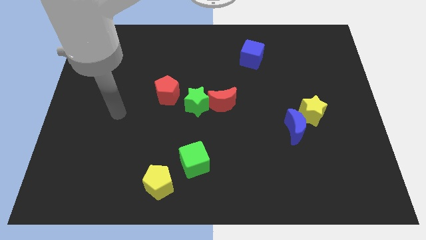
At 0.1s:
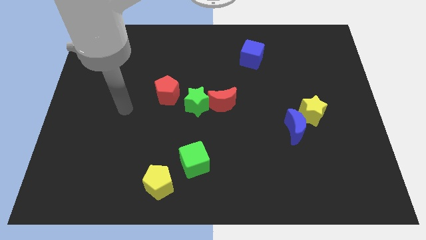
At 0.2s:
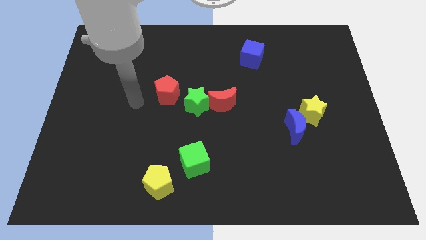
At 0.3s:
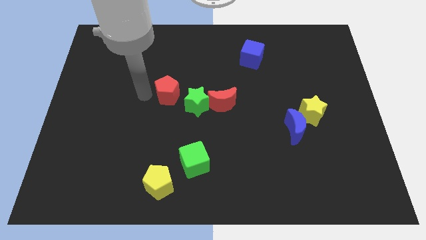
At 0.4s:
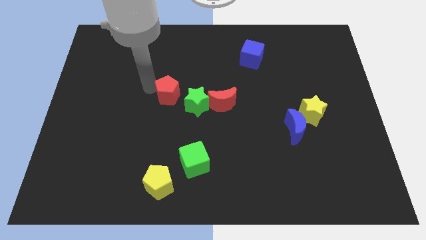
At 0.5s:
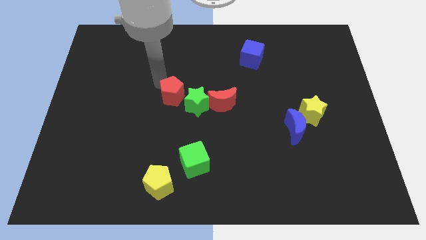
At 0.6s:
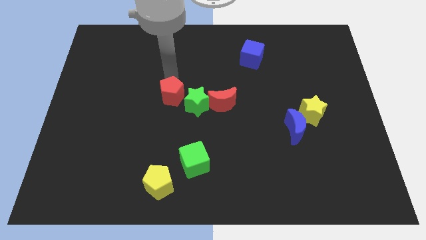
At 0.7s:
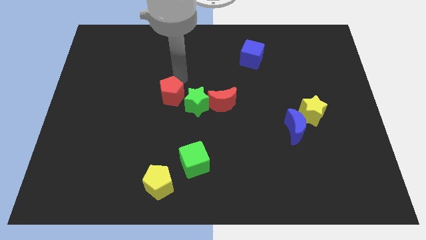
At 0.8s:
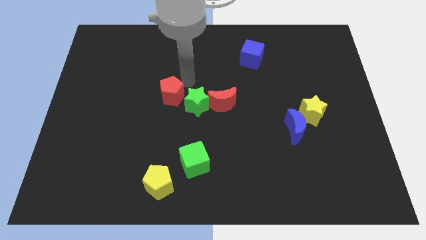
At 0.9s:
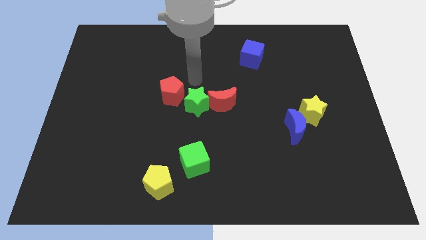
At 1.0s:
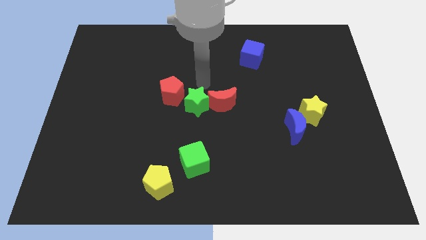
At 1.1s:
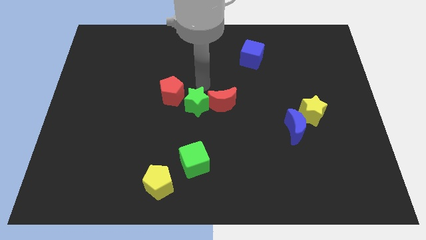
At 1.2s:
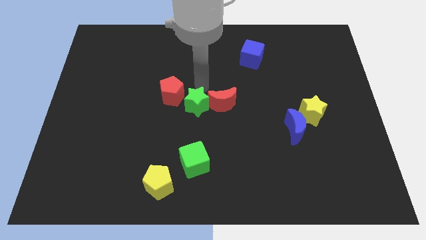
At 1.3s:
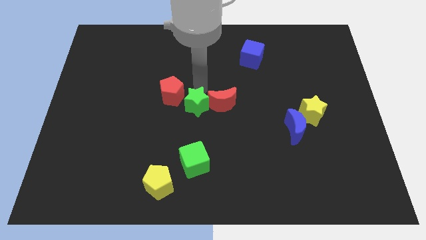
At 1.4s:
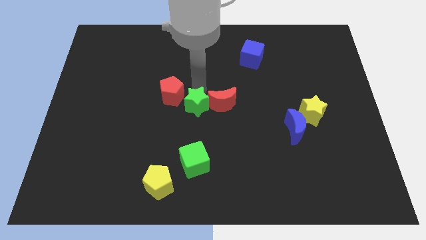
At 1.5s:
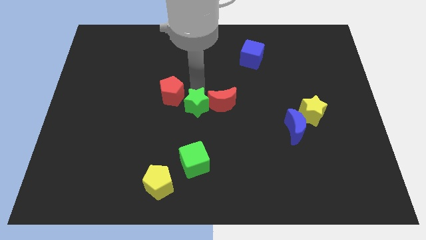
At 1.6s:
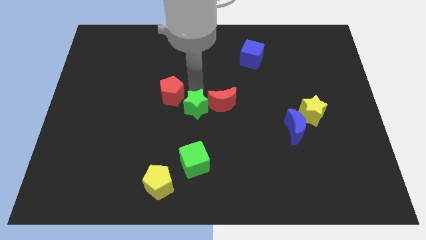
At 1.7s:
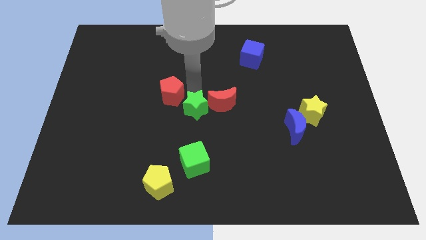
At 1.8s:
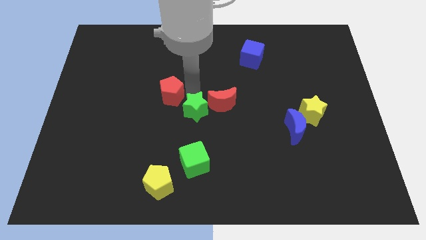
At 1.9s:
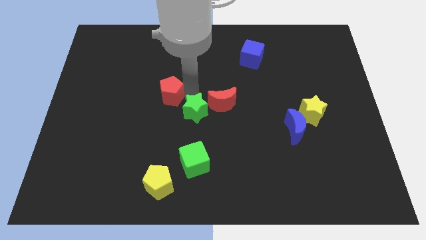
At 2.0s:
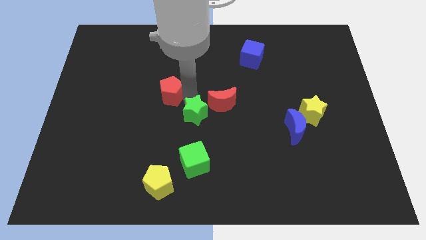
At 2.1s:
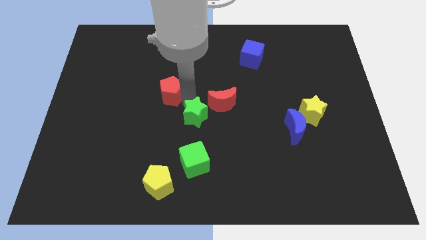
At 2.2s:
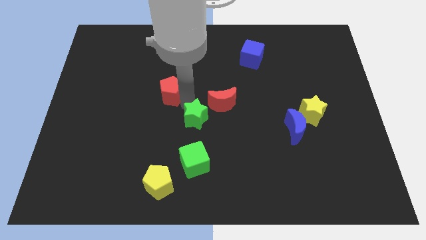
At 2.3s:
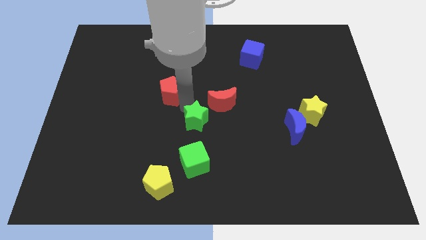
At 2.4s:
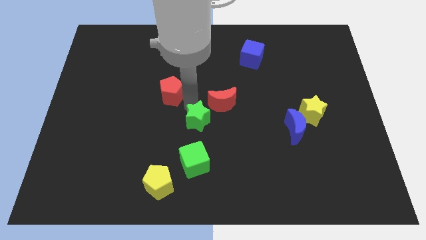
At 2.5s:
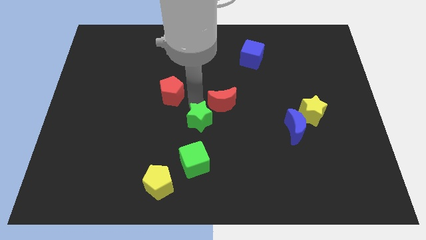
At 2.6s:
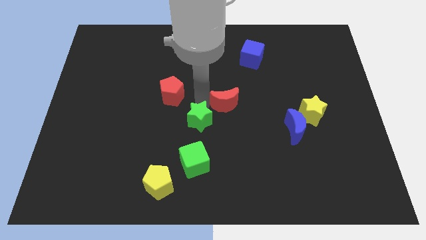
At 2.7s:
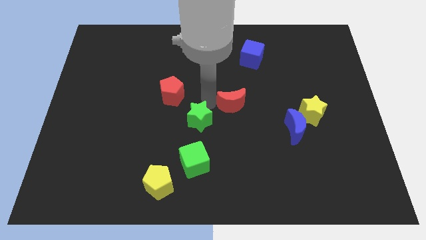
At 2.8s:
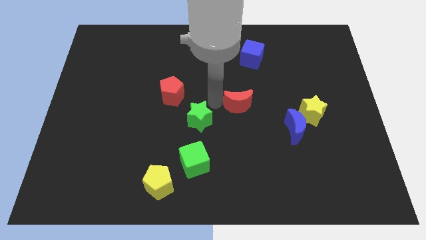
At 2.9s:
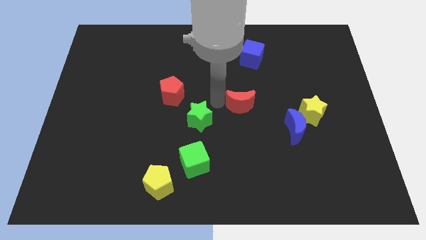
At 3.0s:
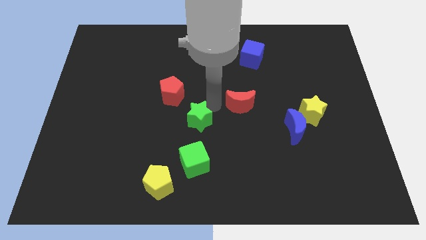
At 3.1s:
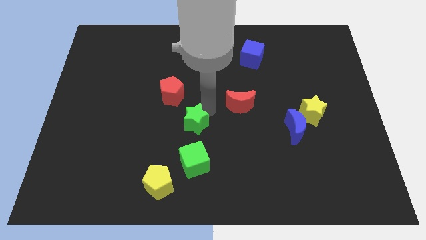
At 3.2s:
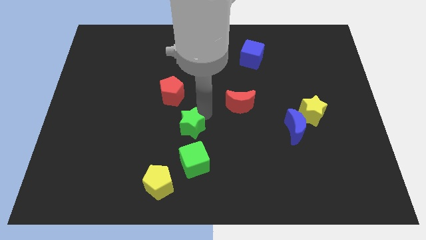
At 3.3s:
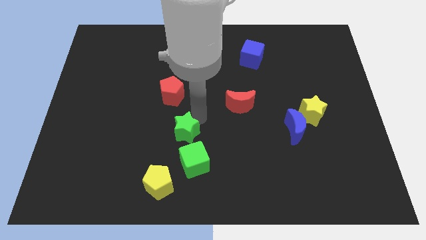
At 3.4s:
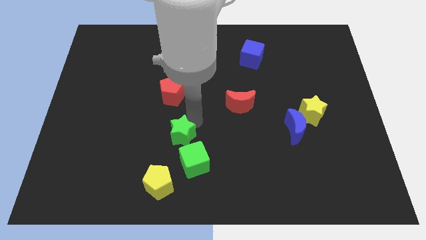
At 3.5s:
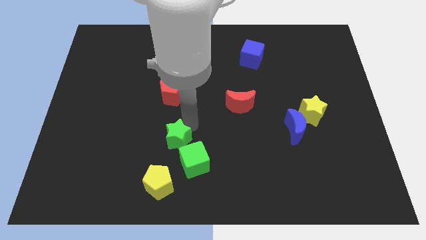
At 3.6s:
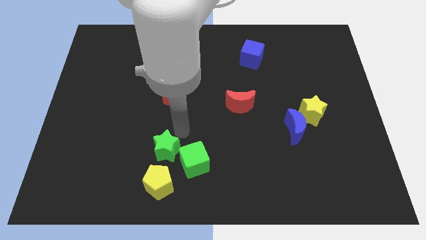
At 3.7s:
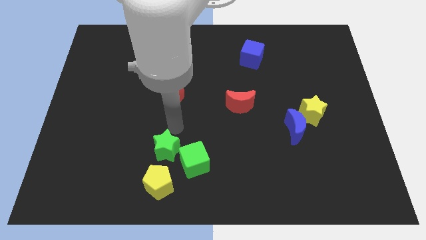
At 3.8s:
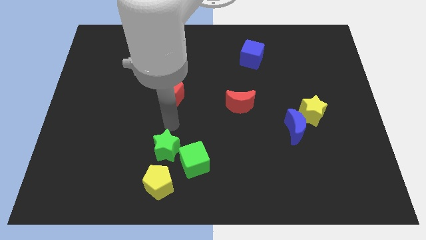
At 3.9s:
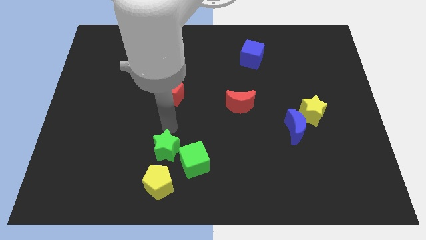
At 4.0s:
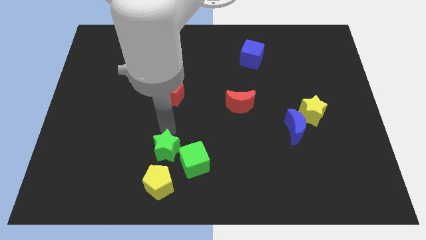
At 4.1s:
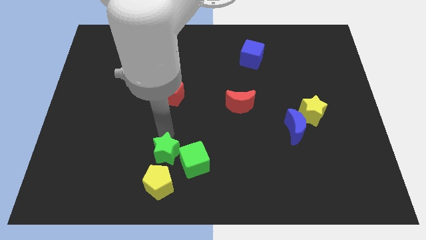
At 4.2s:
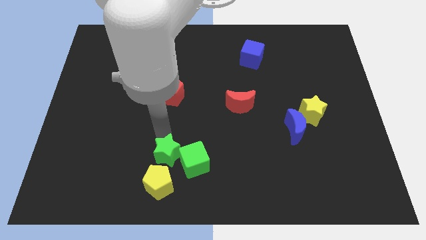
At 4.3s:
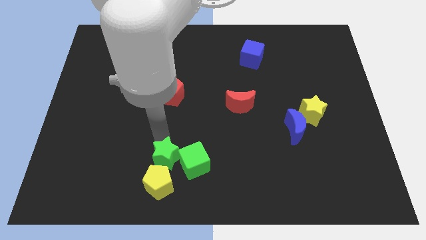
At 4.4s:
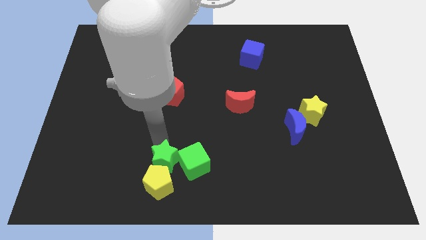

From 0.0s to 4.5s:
move the green star next to the yellow pentagon

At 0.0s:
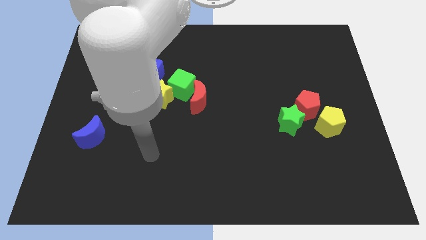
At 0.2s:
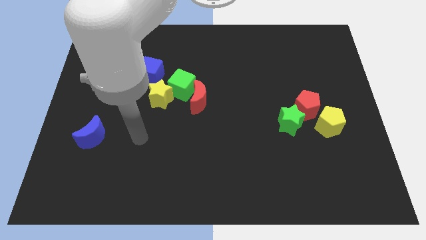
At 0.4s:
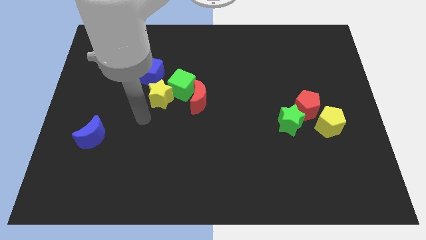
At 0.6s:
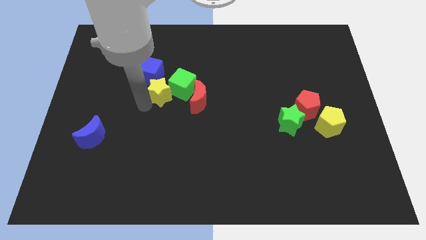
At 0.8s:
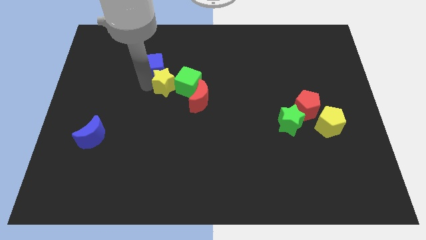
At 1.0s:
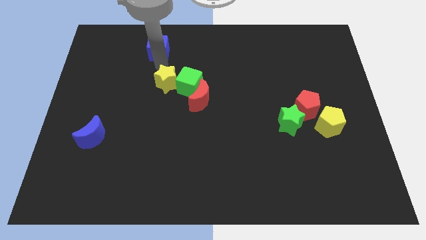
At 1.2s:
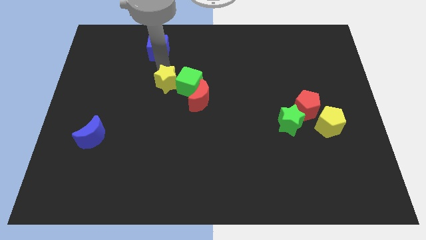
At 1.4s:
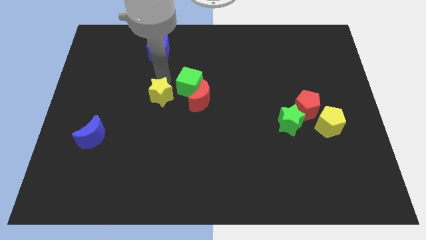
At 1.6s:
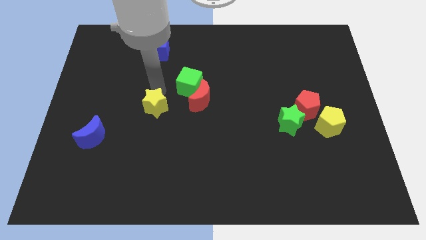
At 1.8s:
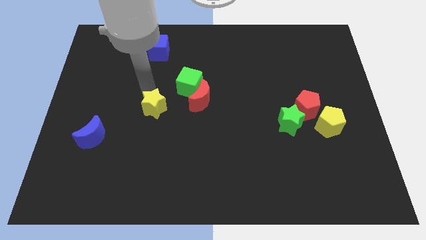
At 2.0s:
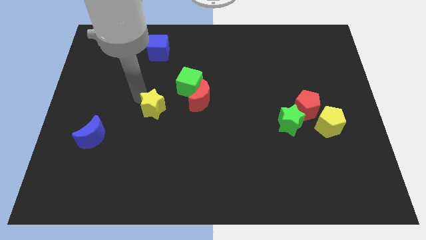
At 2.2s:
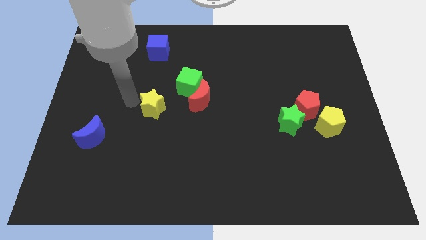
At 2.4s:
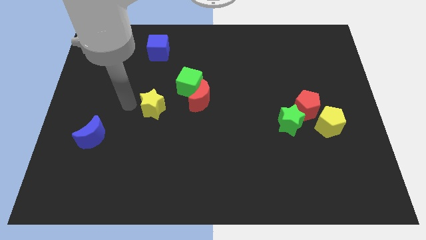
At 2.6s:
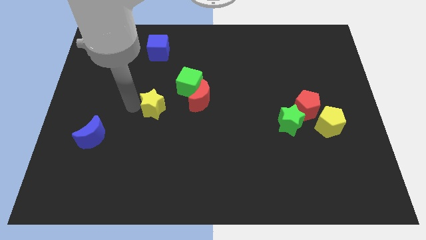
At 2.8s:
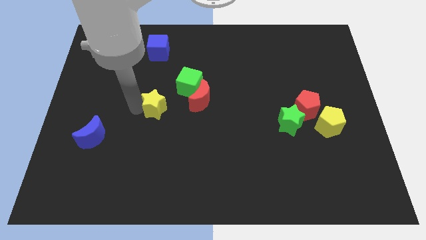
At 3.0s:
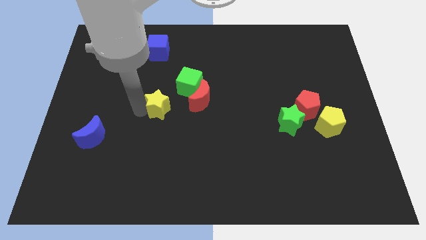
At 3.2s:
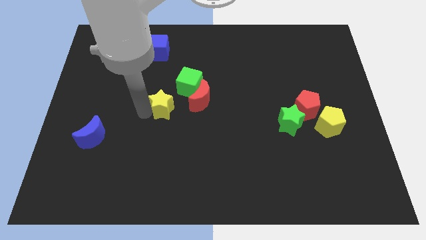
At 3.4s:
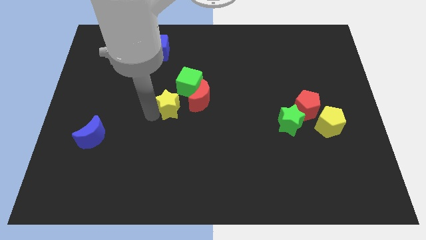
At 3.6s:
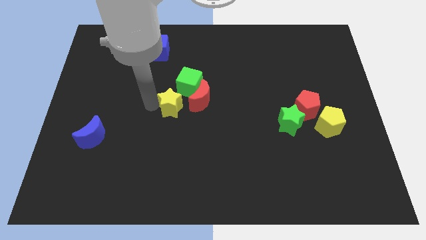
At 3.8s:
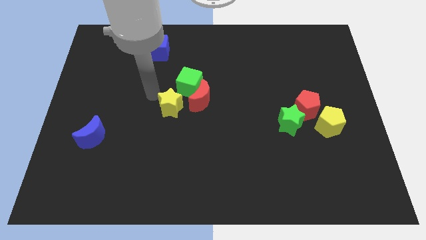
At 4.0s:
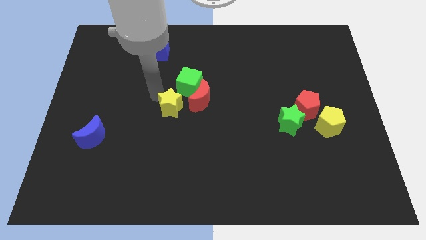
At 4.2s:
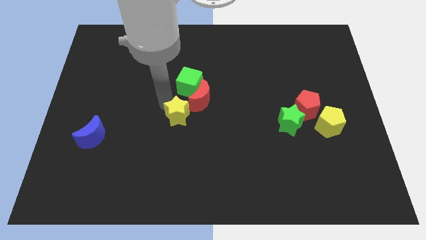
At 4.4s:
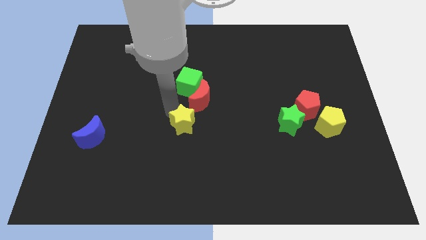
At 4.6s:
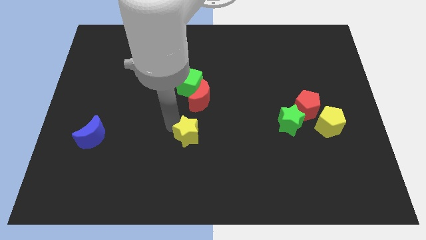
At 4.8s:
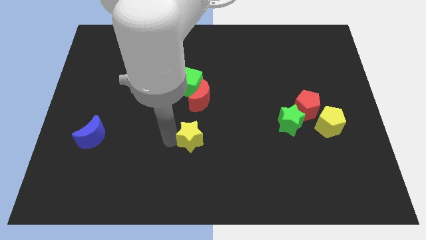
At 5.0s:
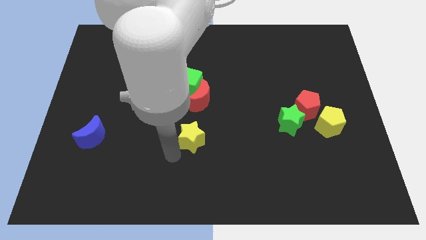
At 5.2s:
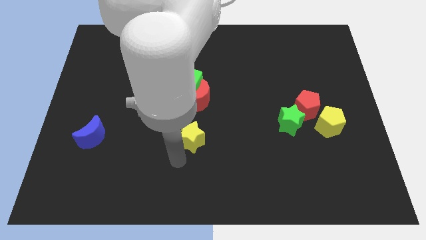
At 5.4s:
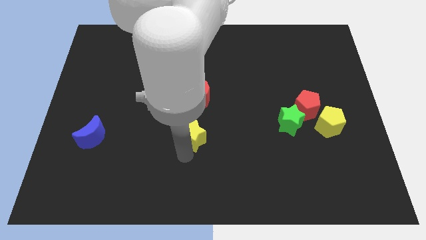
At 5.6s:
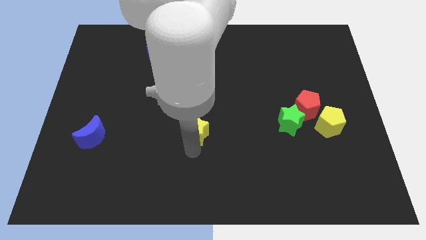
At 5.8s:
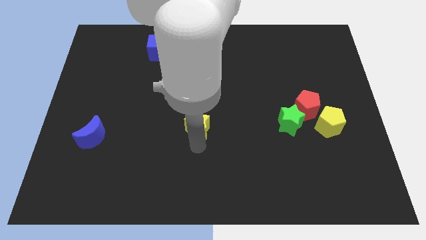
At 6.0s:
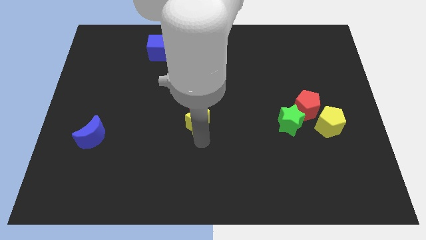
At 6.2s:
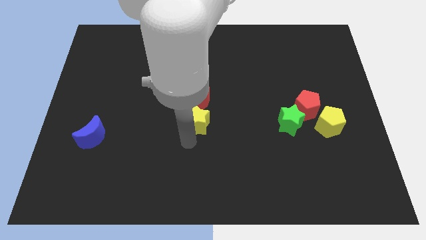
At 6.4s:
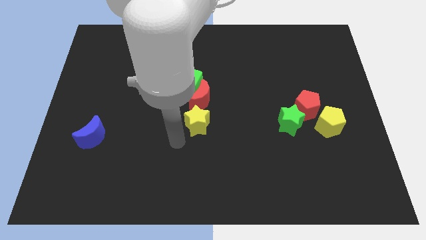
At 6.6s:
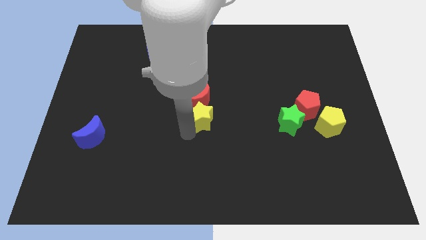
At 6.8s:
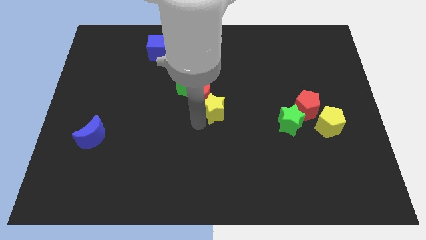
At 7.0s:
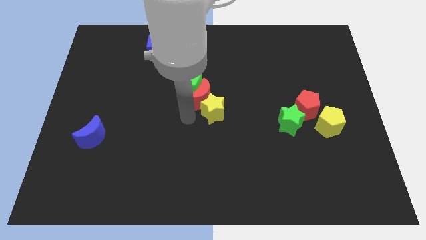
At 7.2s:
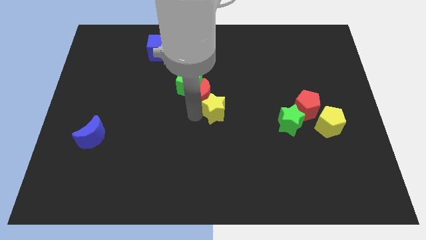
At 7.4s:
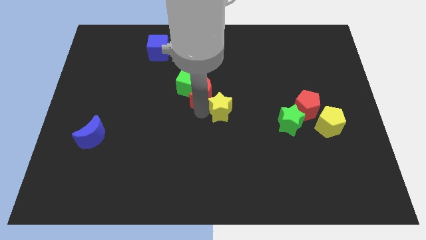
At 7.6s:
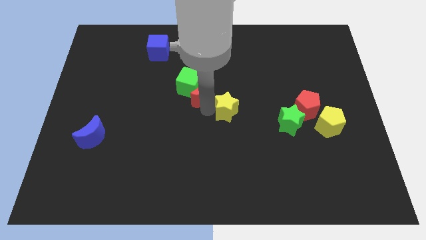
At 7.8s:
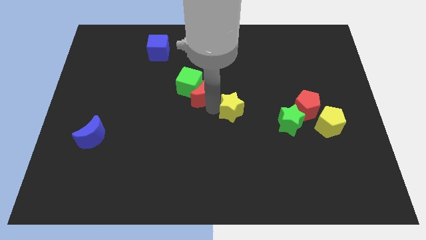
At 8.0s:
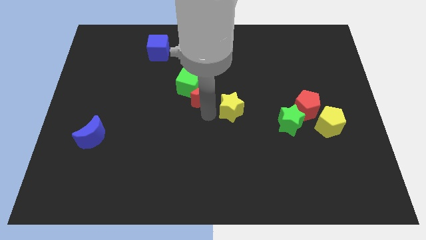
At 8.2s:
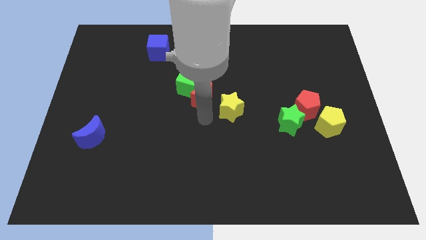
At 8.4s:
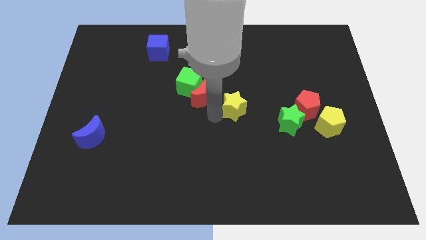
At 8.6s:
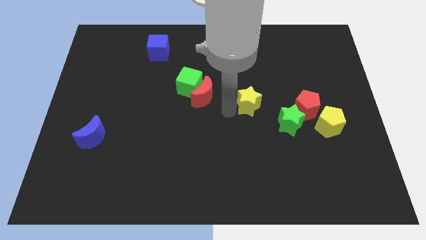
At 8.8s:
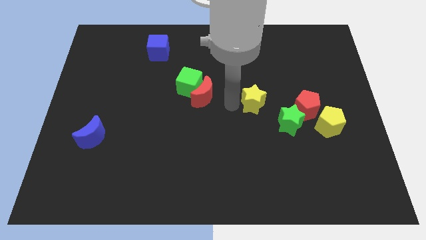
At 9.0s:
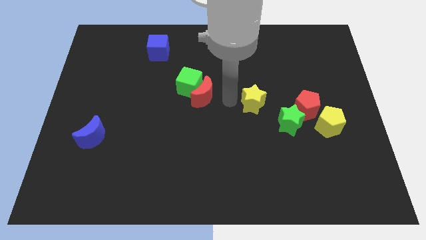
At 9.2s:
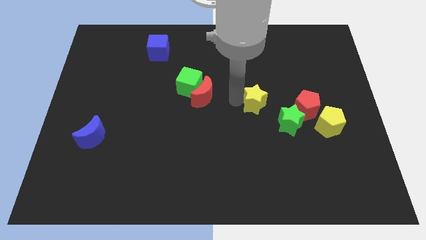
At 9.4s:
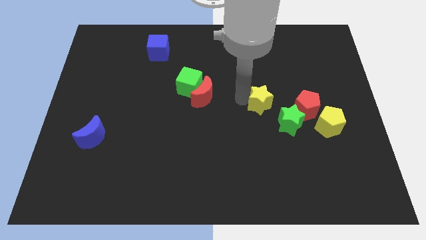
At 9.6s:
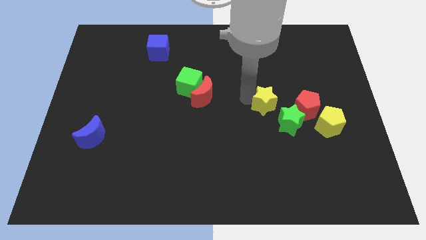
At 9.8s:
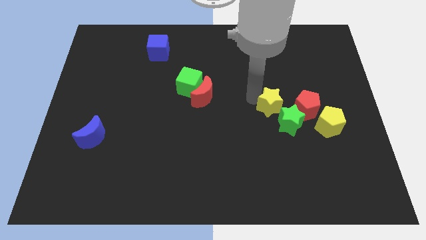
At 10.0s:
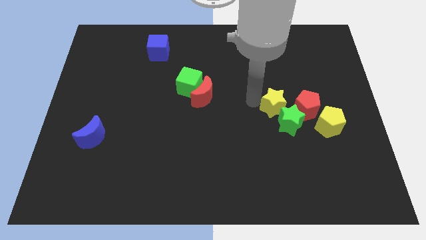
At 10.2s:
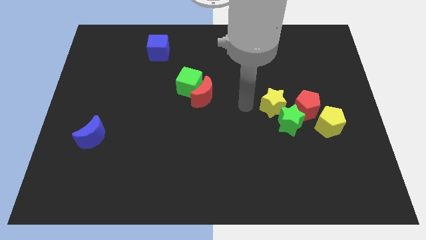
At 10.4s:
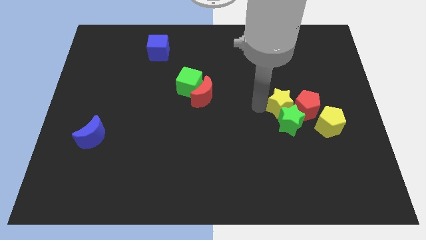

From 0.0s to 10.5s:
put the yellow star next to the red pentagon
